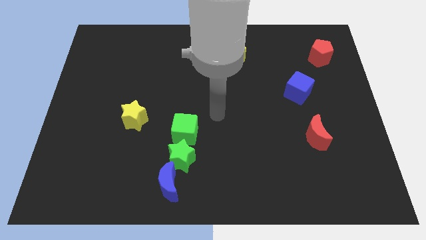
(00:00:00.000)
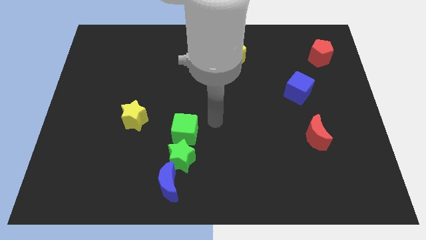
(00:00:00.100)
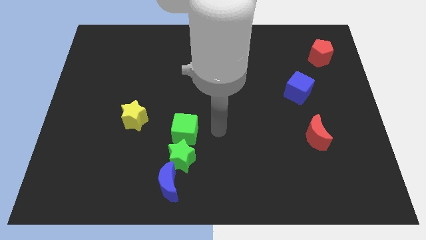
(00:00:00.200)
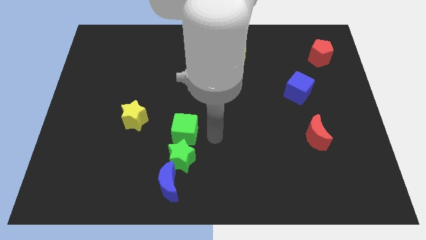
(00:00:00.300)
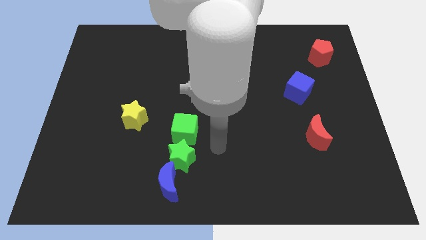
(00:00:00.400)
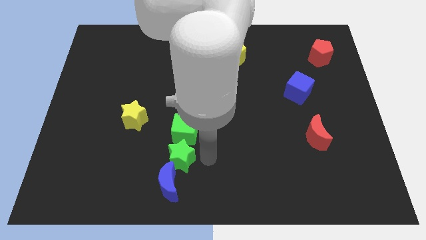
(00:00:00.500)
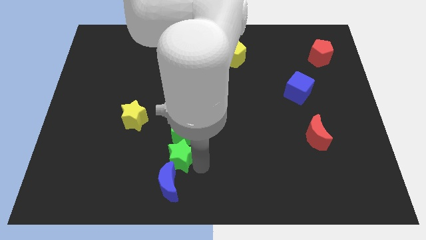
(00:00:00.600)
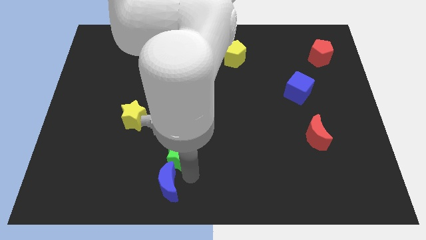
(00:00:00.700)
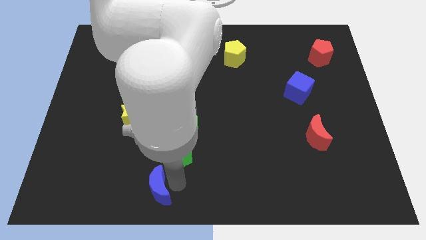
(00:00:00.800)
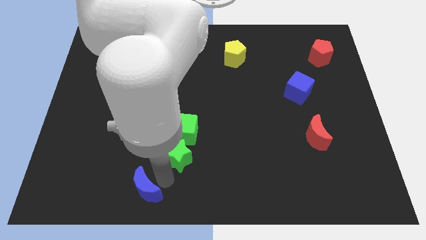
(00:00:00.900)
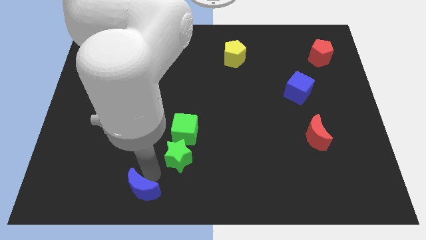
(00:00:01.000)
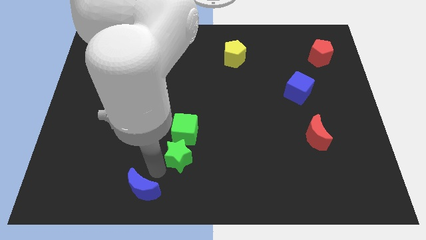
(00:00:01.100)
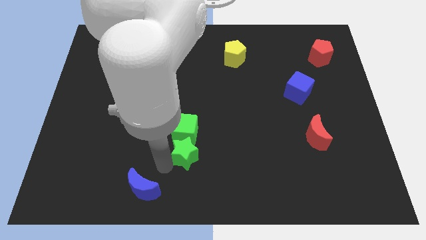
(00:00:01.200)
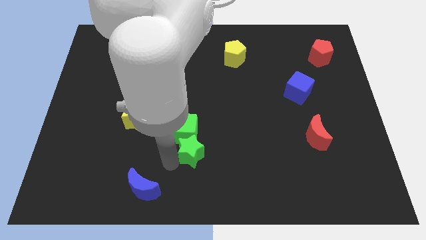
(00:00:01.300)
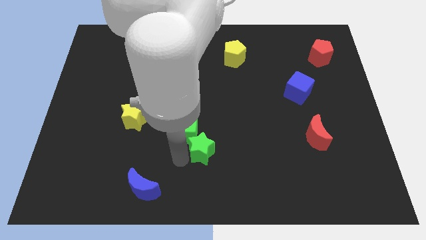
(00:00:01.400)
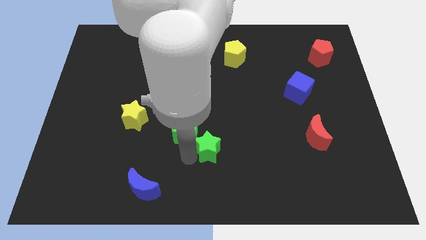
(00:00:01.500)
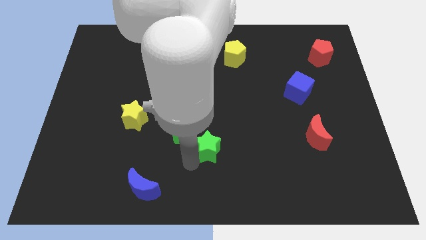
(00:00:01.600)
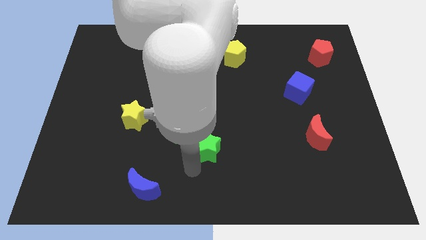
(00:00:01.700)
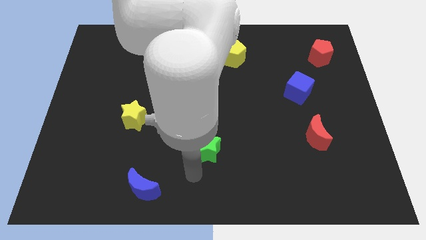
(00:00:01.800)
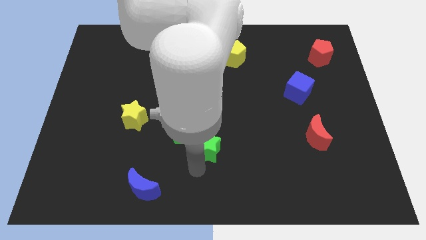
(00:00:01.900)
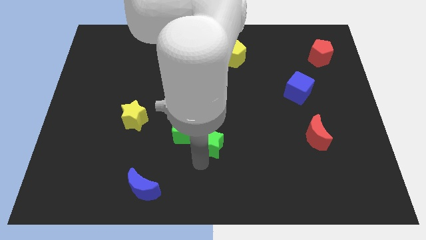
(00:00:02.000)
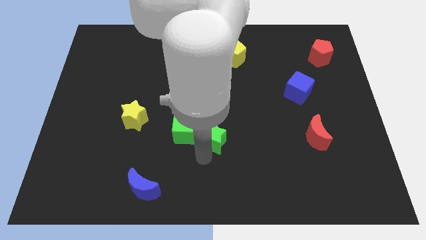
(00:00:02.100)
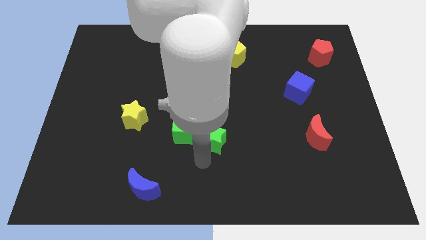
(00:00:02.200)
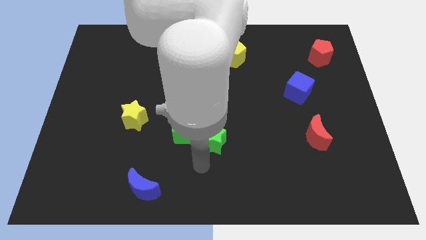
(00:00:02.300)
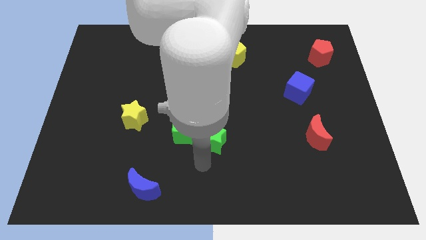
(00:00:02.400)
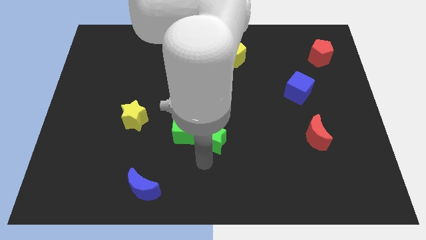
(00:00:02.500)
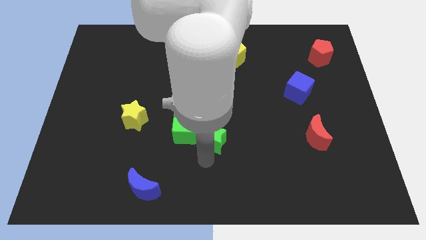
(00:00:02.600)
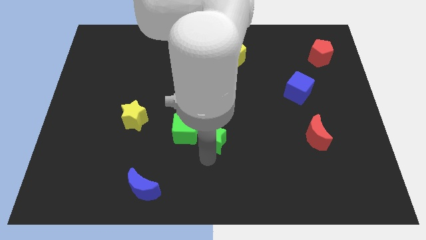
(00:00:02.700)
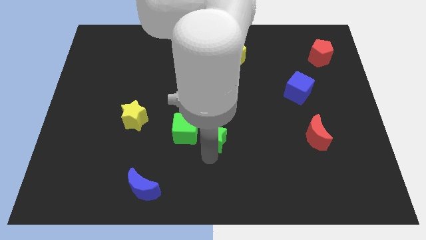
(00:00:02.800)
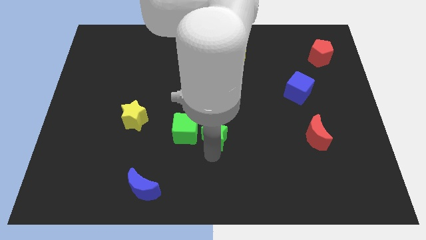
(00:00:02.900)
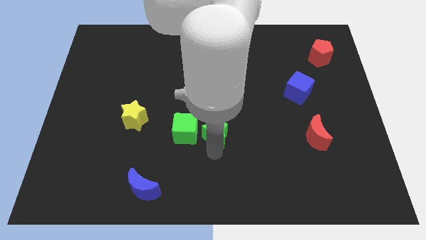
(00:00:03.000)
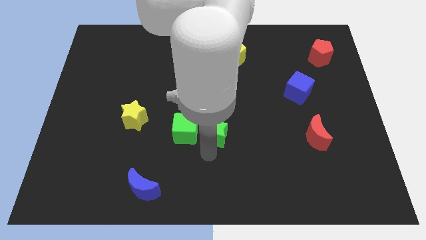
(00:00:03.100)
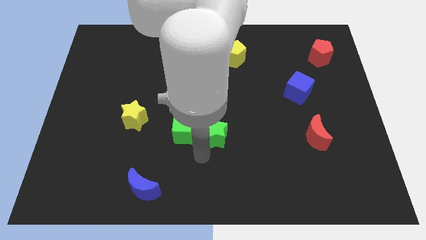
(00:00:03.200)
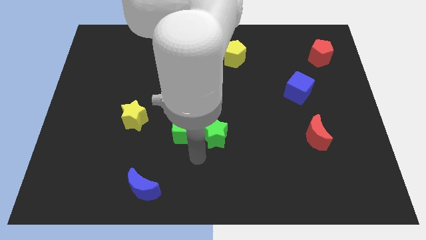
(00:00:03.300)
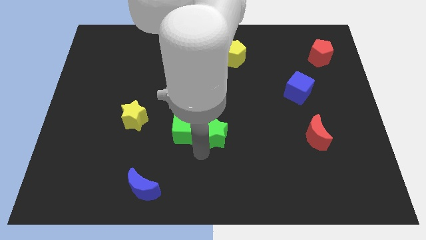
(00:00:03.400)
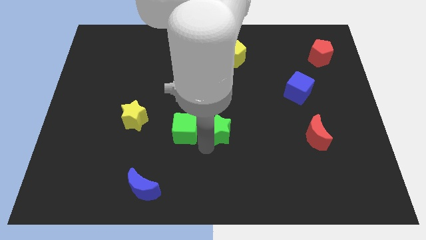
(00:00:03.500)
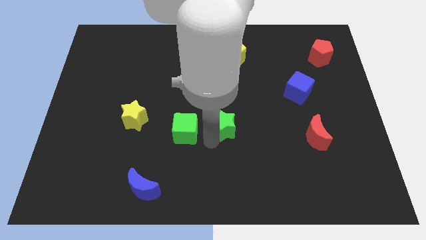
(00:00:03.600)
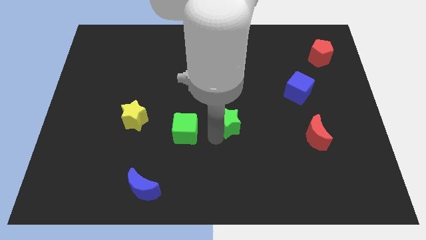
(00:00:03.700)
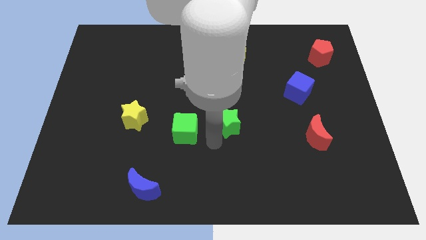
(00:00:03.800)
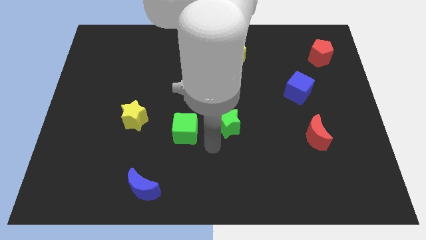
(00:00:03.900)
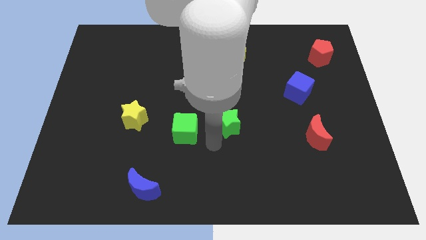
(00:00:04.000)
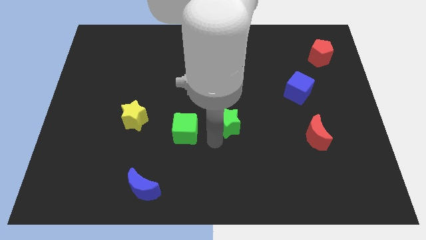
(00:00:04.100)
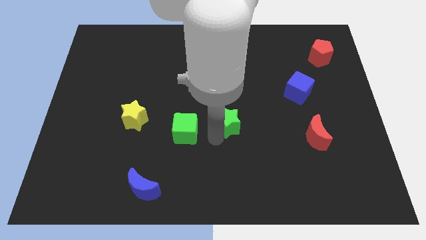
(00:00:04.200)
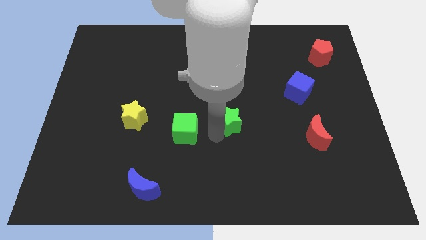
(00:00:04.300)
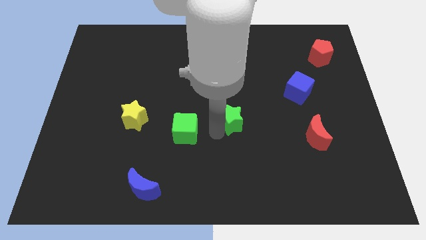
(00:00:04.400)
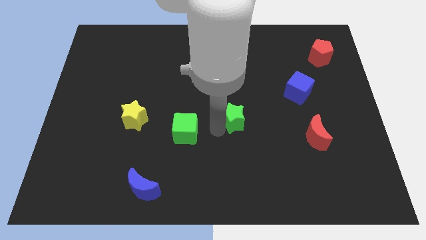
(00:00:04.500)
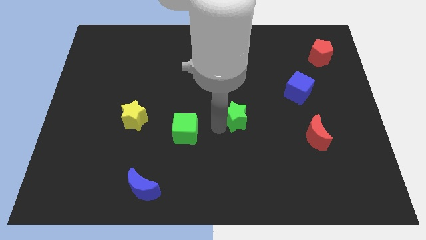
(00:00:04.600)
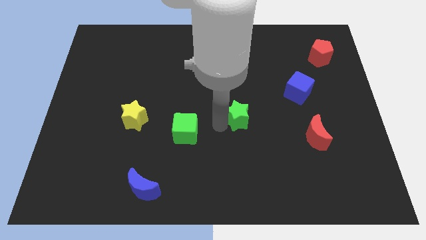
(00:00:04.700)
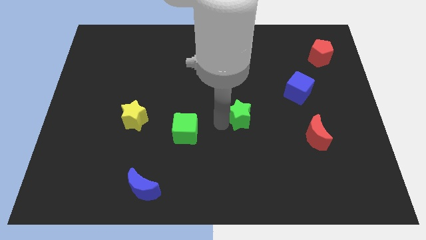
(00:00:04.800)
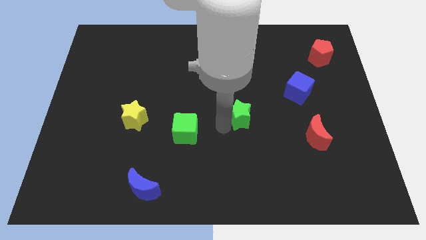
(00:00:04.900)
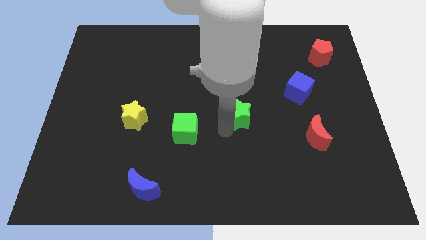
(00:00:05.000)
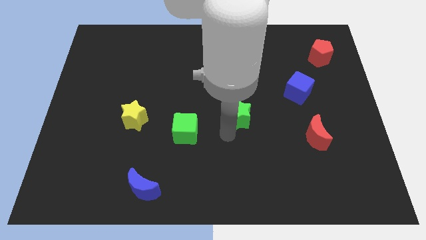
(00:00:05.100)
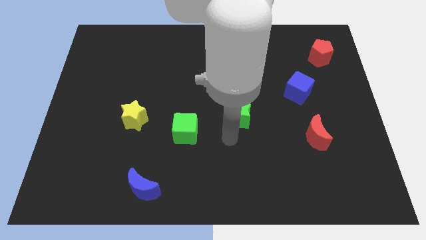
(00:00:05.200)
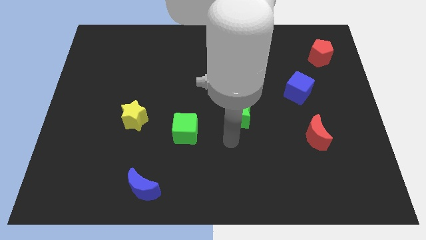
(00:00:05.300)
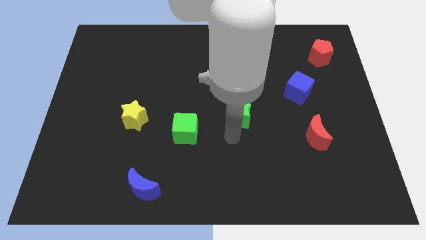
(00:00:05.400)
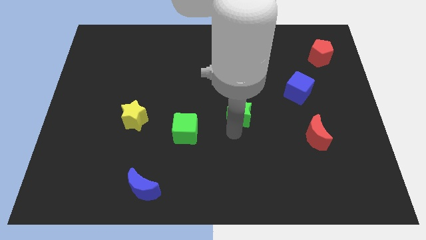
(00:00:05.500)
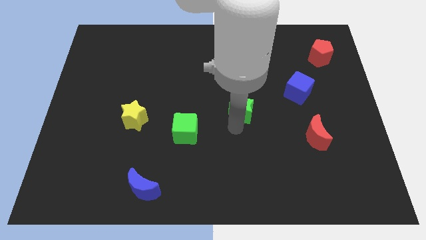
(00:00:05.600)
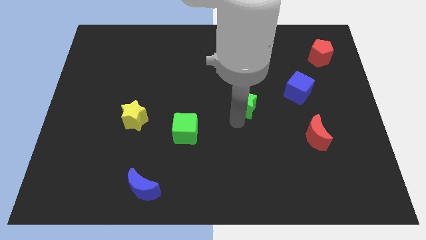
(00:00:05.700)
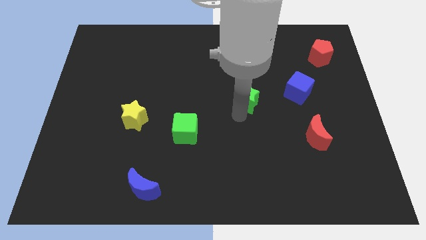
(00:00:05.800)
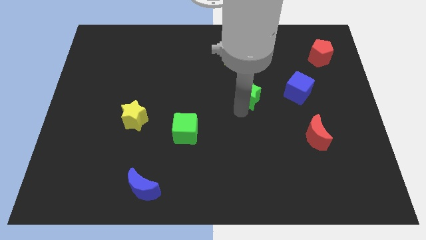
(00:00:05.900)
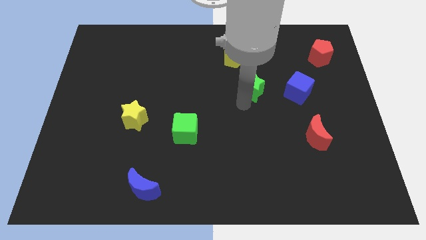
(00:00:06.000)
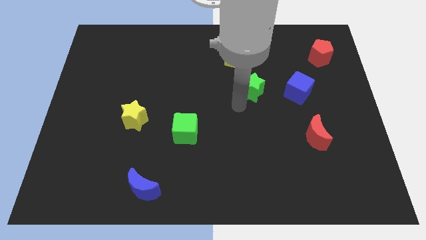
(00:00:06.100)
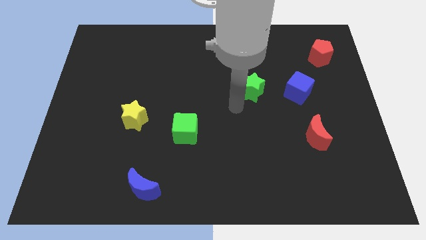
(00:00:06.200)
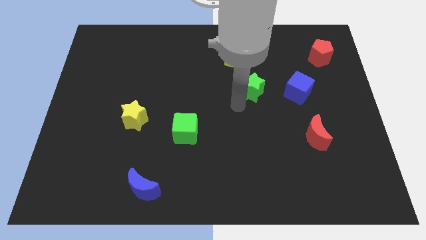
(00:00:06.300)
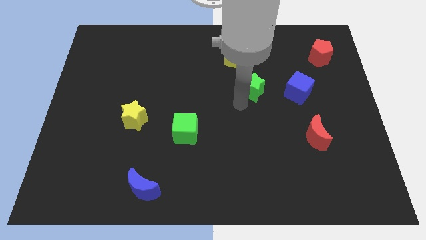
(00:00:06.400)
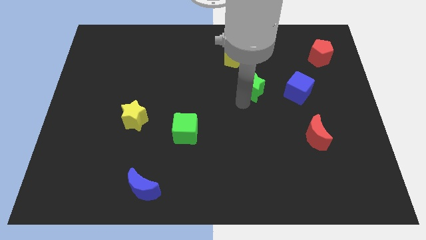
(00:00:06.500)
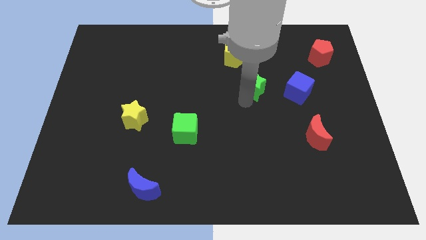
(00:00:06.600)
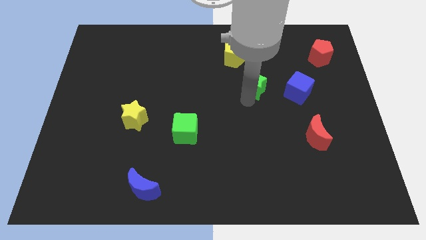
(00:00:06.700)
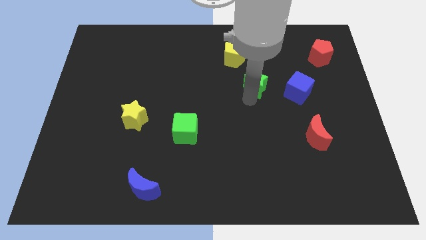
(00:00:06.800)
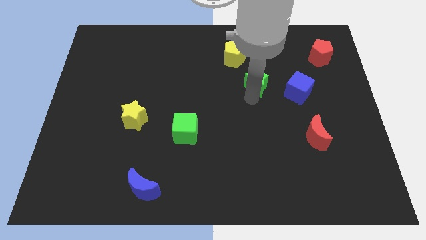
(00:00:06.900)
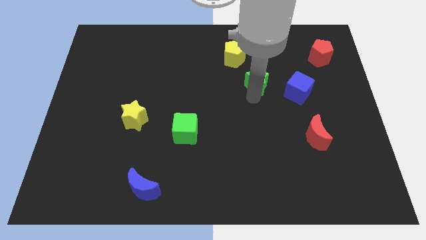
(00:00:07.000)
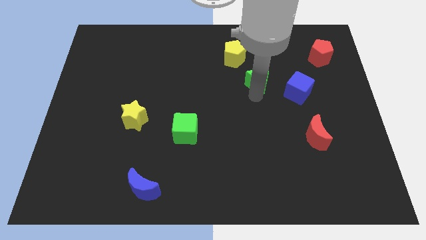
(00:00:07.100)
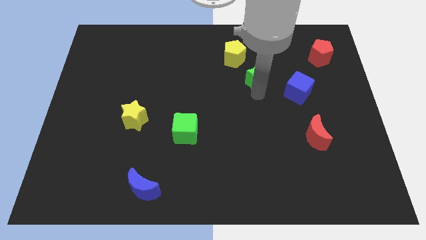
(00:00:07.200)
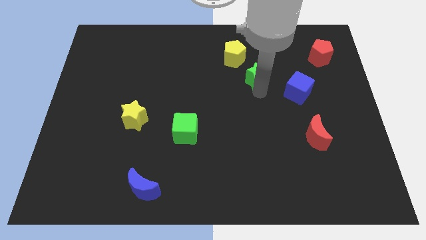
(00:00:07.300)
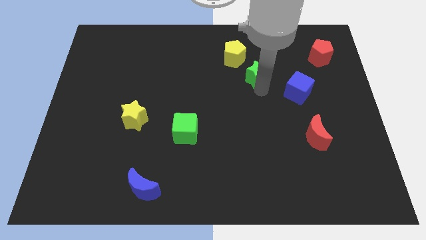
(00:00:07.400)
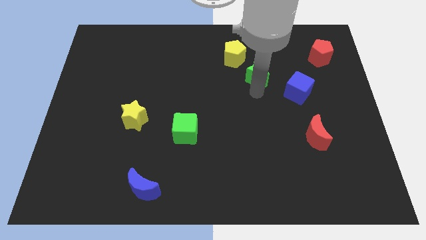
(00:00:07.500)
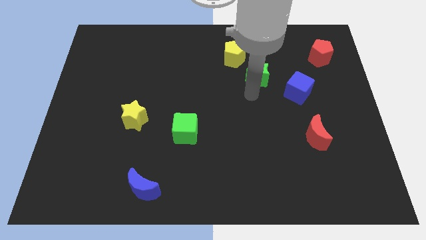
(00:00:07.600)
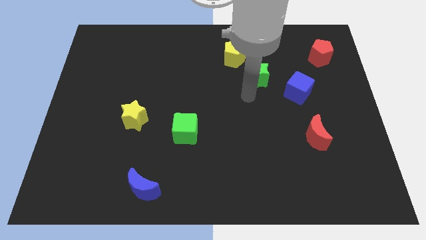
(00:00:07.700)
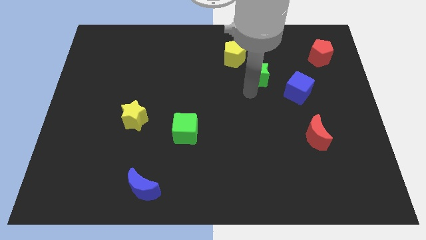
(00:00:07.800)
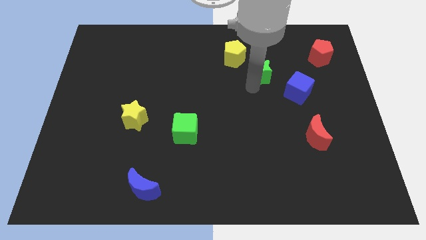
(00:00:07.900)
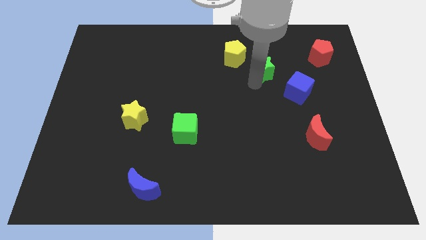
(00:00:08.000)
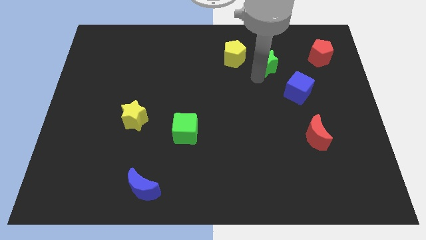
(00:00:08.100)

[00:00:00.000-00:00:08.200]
push the green star to the left of the red pentagon
